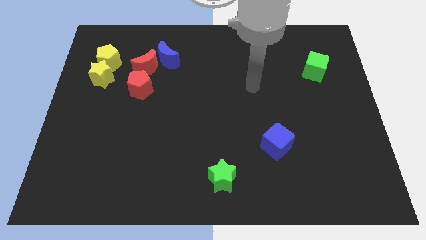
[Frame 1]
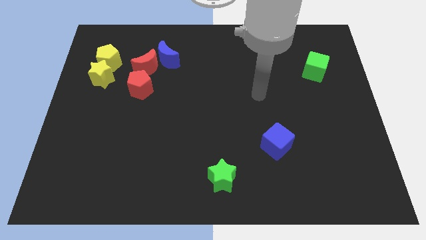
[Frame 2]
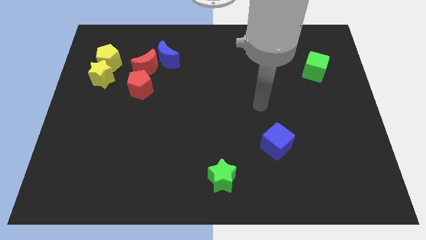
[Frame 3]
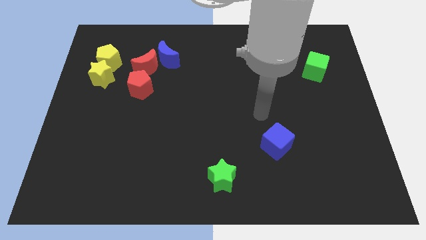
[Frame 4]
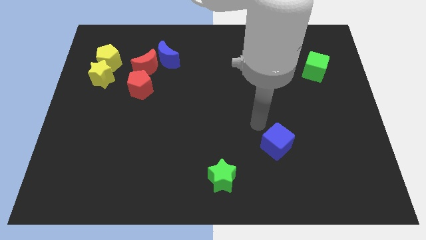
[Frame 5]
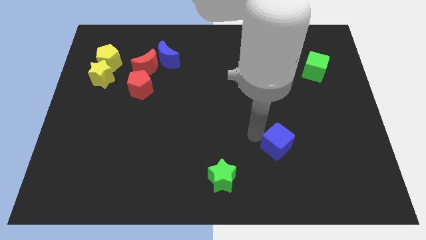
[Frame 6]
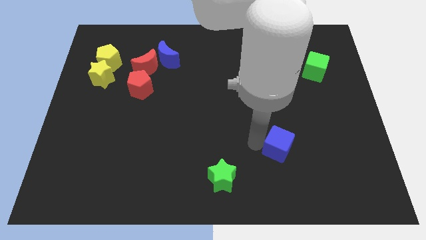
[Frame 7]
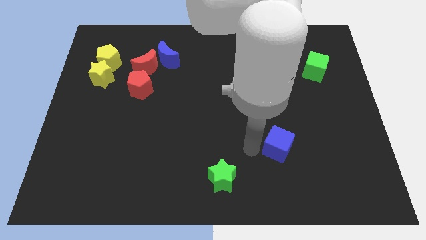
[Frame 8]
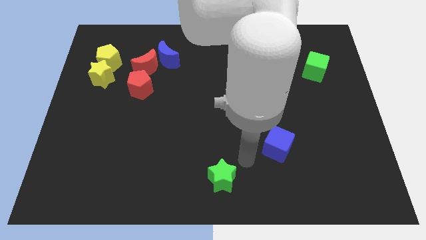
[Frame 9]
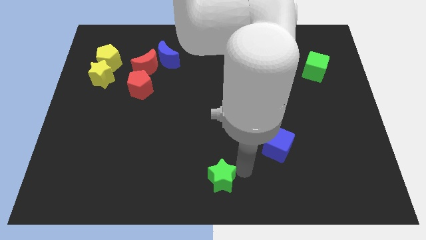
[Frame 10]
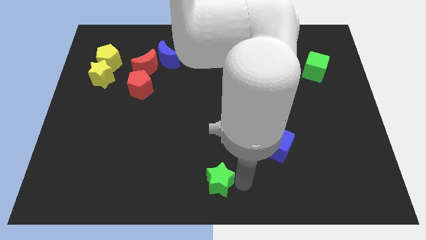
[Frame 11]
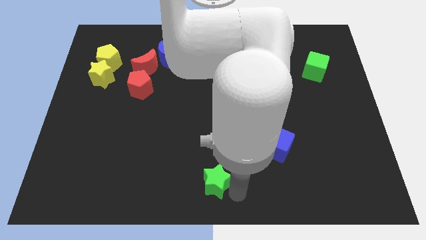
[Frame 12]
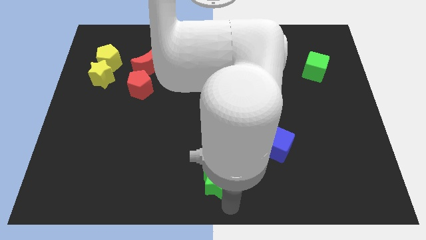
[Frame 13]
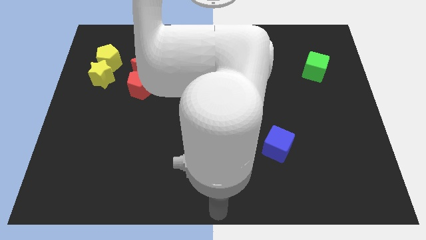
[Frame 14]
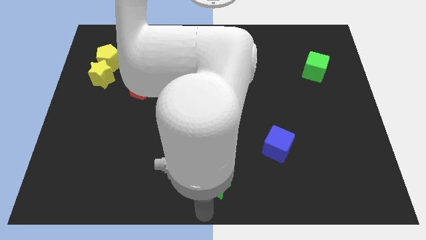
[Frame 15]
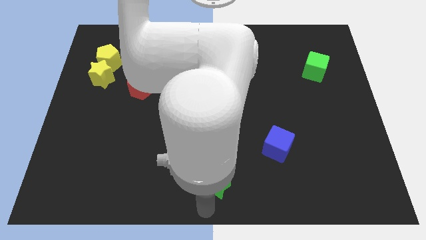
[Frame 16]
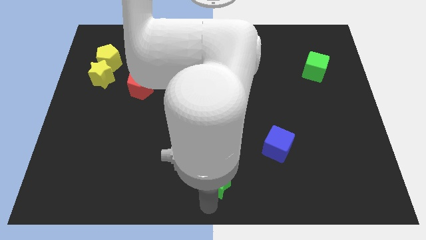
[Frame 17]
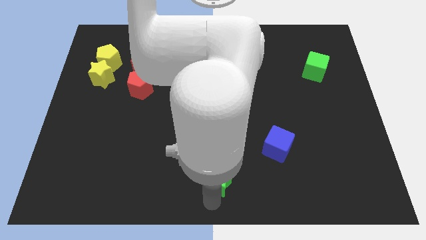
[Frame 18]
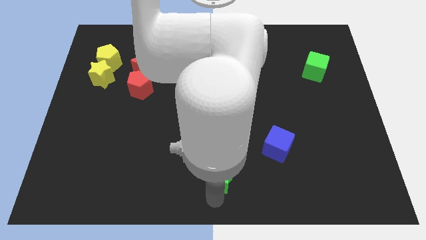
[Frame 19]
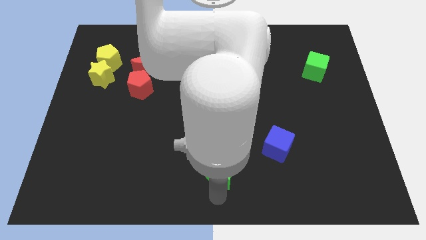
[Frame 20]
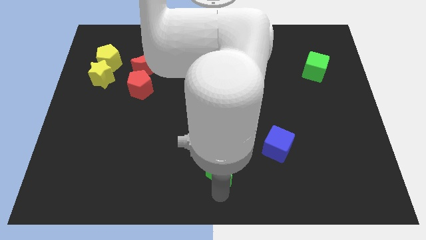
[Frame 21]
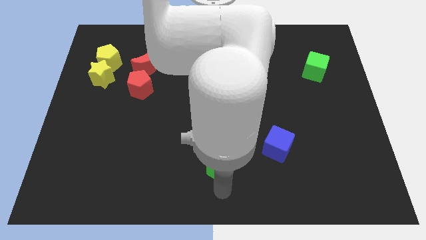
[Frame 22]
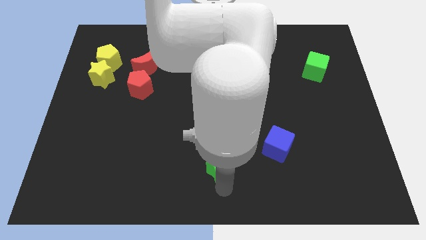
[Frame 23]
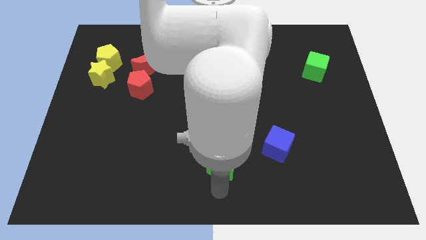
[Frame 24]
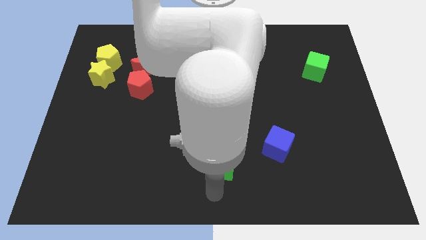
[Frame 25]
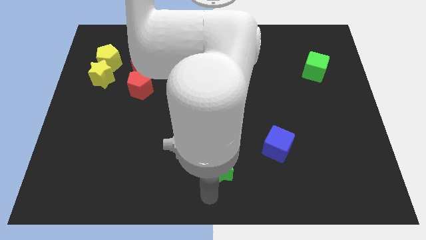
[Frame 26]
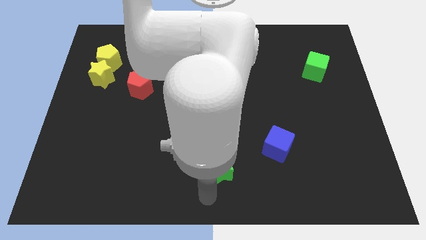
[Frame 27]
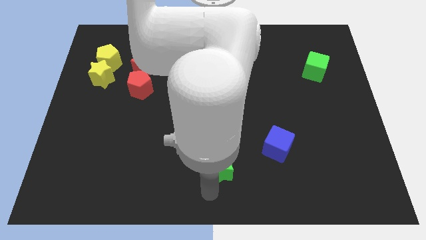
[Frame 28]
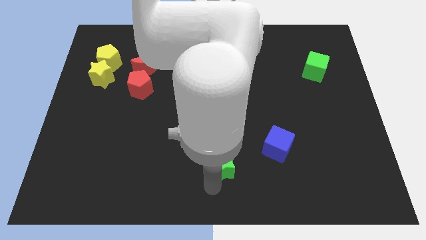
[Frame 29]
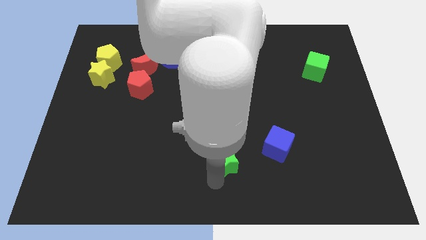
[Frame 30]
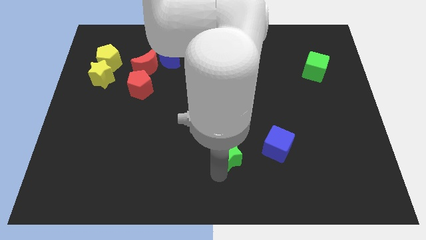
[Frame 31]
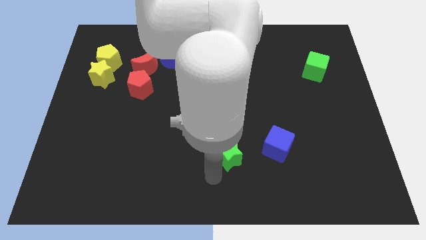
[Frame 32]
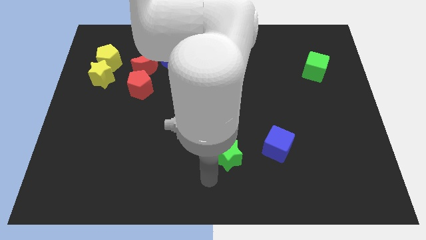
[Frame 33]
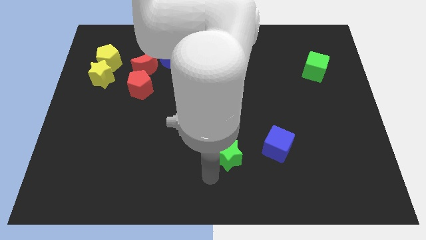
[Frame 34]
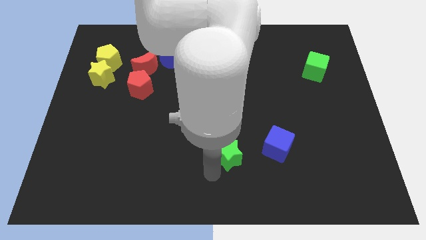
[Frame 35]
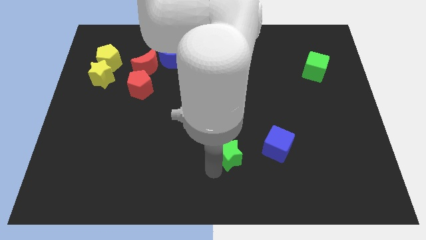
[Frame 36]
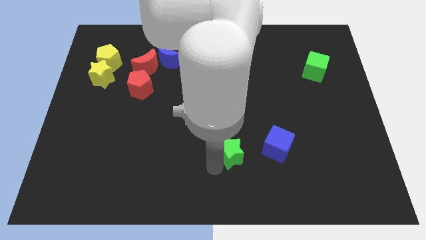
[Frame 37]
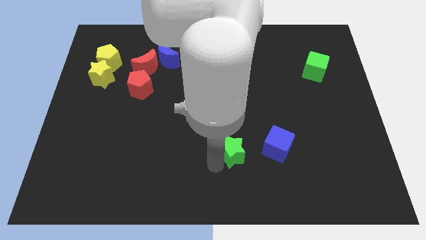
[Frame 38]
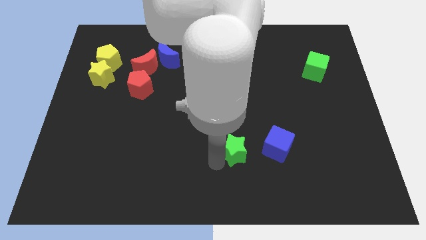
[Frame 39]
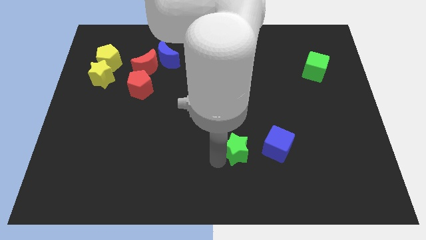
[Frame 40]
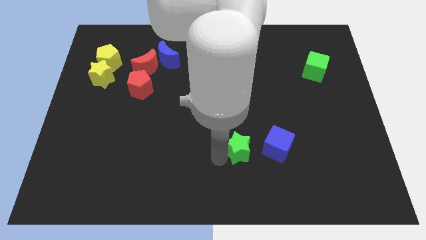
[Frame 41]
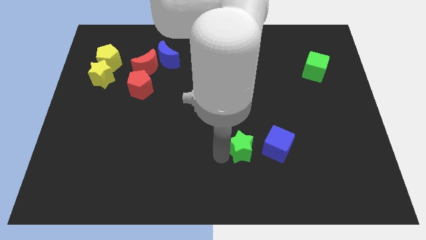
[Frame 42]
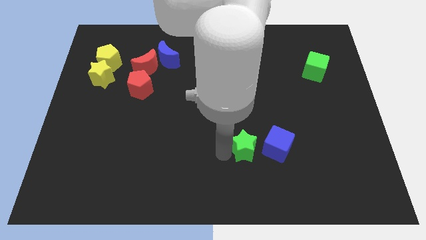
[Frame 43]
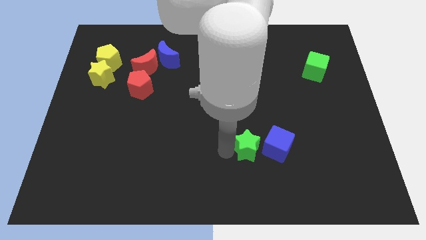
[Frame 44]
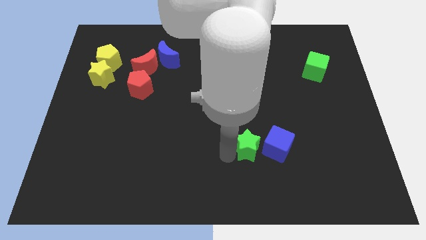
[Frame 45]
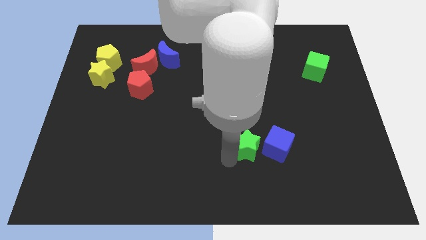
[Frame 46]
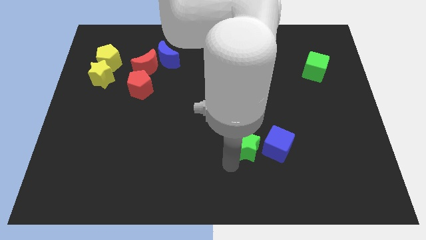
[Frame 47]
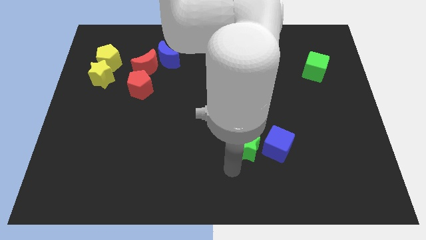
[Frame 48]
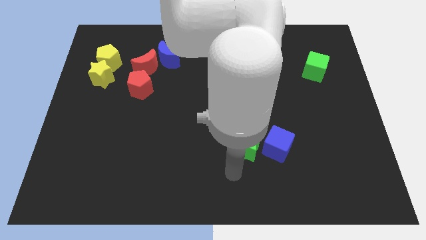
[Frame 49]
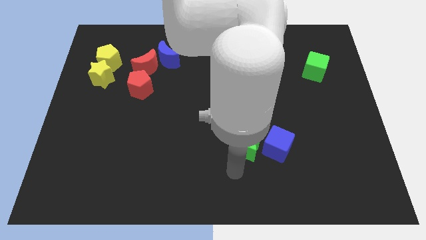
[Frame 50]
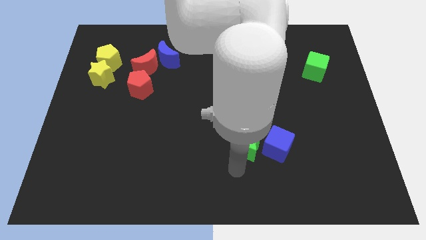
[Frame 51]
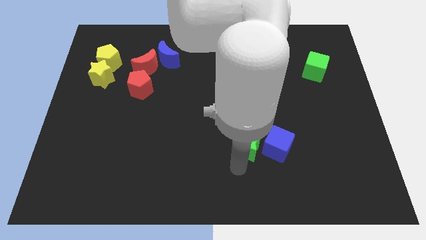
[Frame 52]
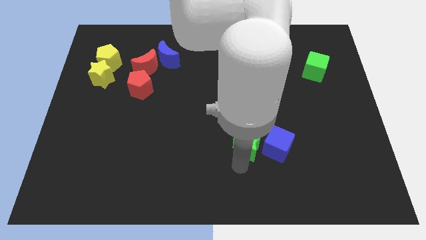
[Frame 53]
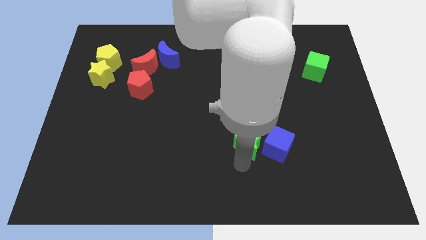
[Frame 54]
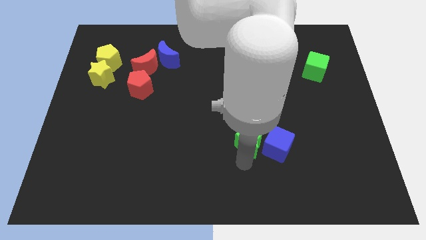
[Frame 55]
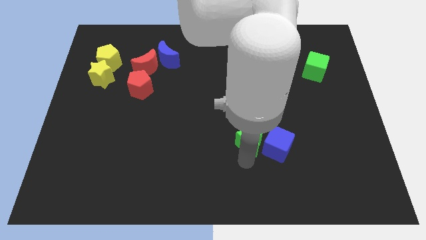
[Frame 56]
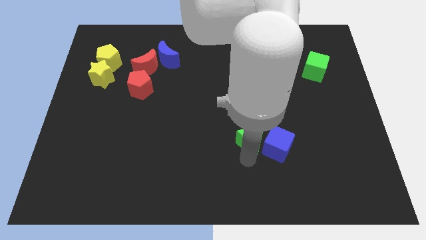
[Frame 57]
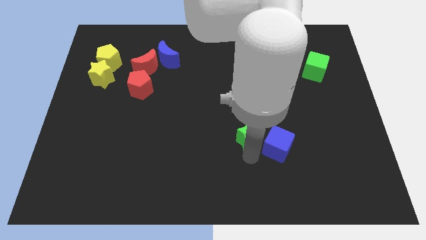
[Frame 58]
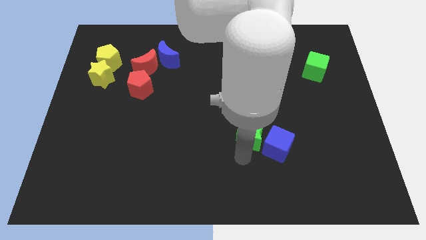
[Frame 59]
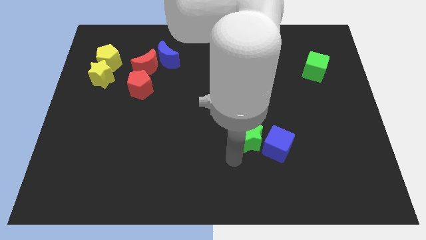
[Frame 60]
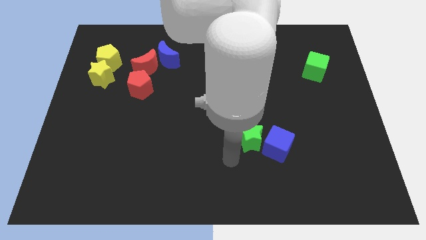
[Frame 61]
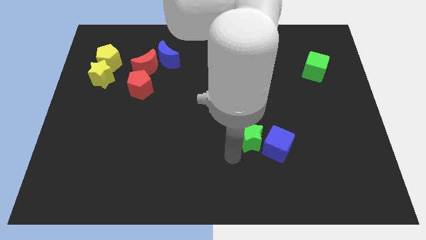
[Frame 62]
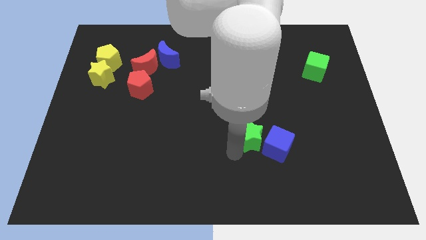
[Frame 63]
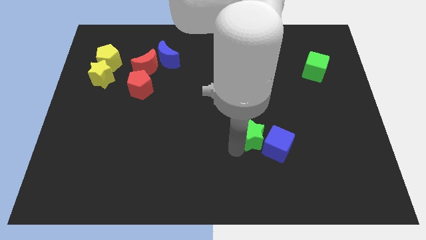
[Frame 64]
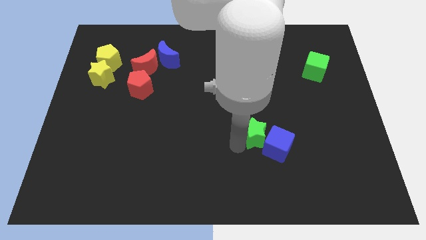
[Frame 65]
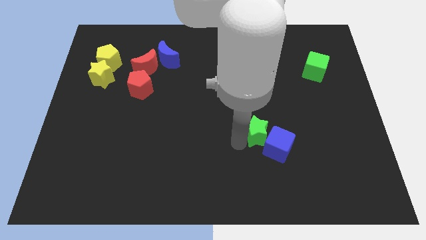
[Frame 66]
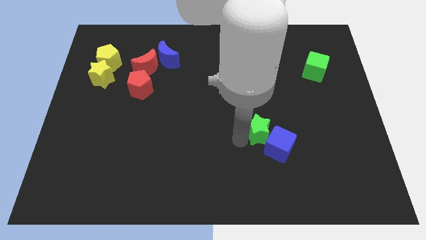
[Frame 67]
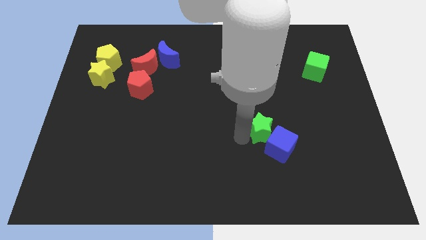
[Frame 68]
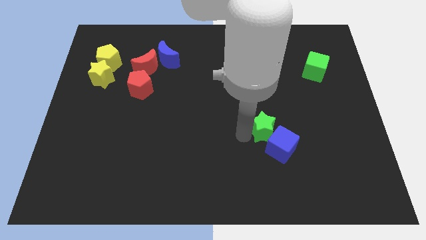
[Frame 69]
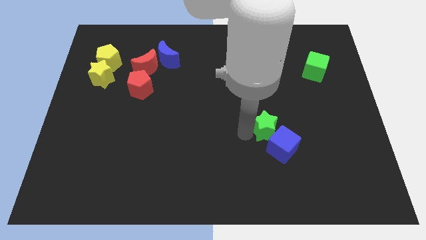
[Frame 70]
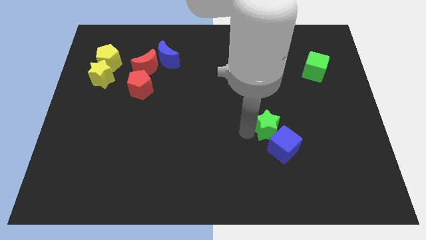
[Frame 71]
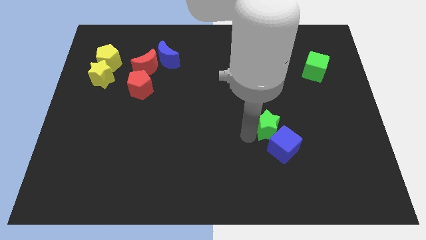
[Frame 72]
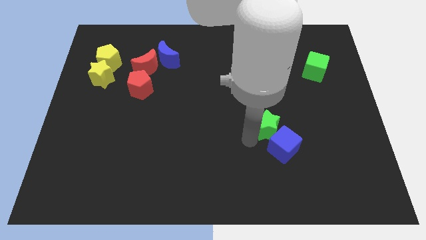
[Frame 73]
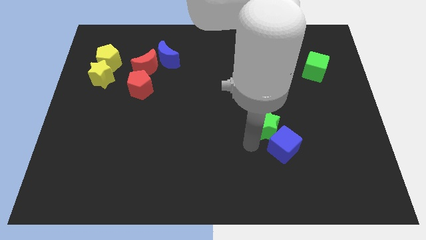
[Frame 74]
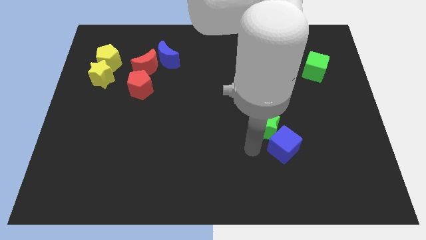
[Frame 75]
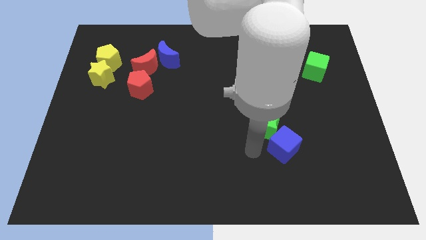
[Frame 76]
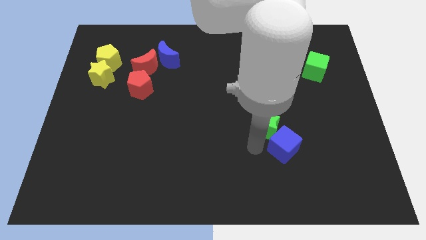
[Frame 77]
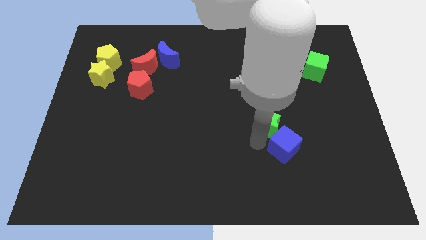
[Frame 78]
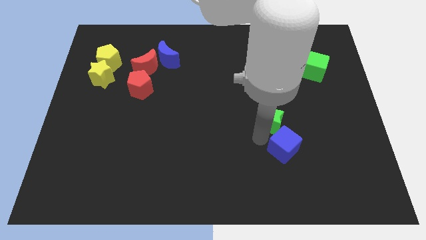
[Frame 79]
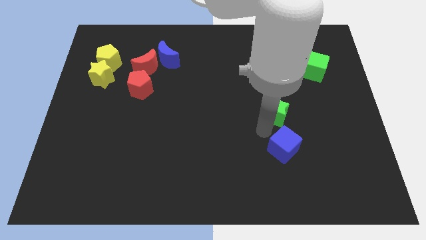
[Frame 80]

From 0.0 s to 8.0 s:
push the green star upwards and then right
